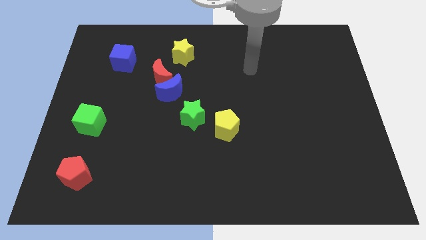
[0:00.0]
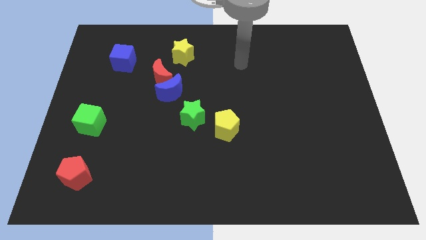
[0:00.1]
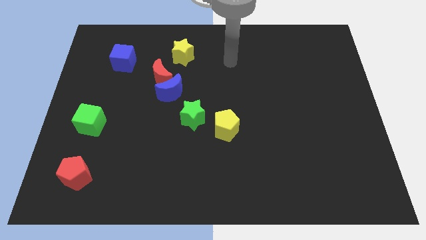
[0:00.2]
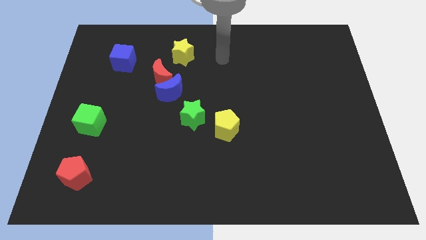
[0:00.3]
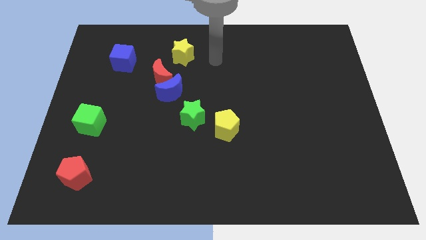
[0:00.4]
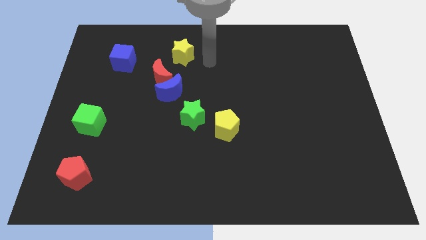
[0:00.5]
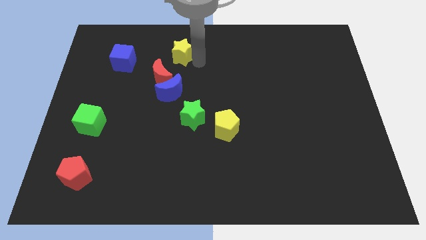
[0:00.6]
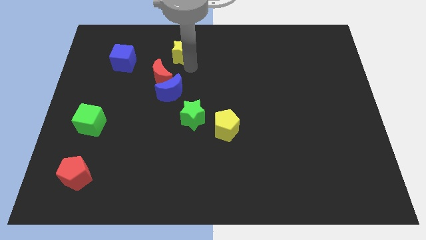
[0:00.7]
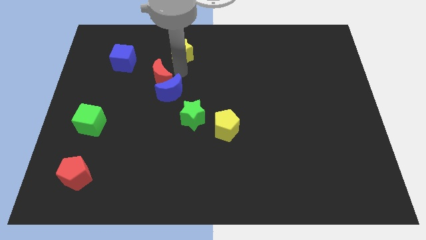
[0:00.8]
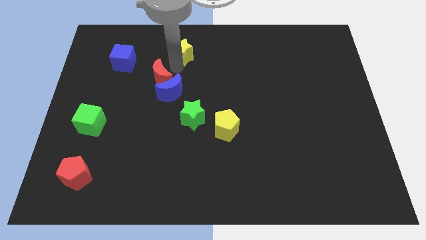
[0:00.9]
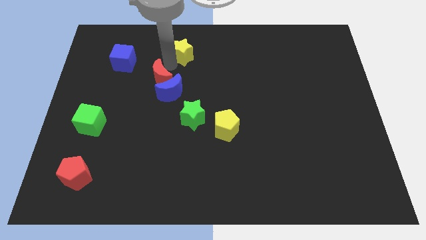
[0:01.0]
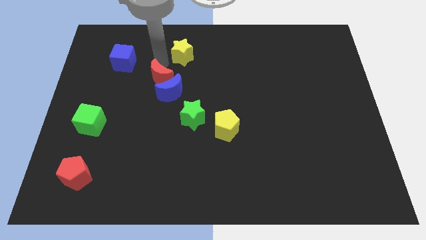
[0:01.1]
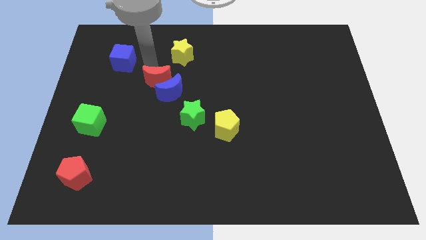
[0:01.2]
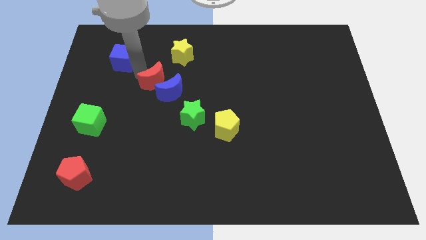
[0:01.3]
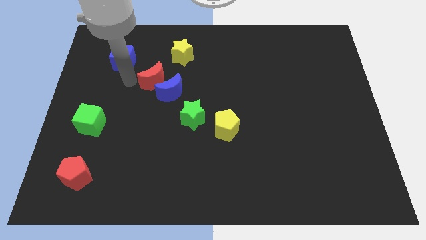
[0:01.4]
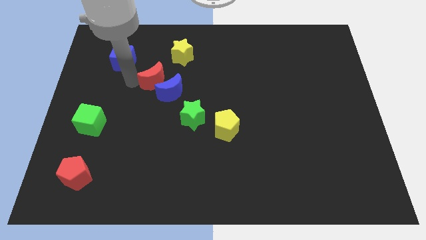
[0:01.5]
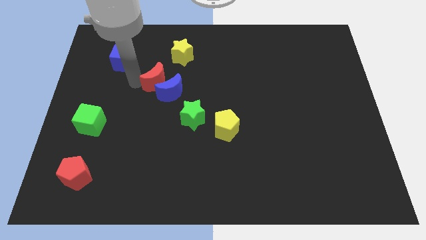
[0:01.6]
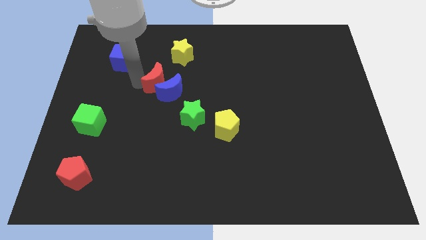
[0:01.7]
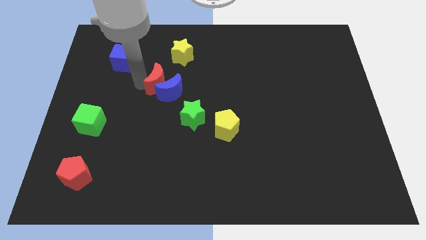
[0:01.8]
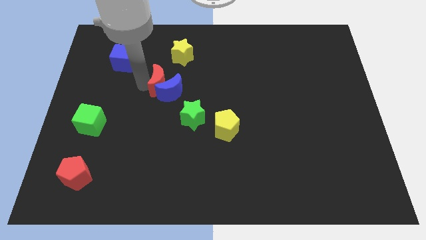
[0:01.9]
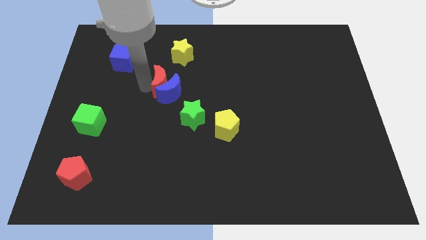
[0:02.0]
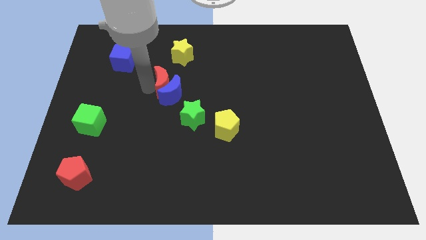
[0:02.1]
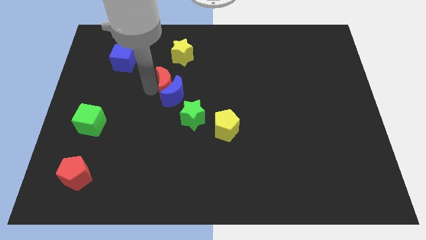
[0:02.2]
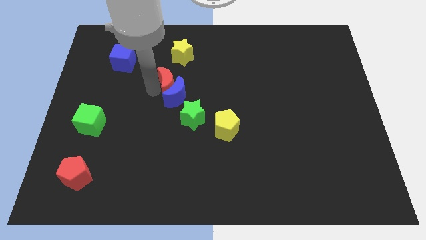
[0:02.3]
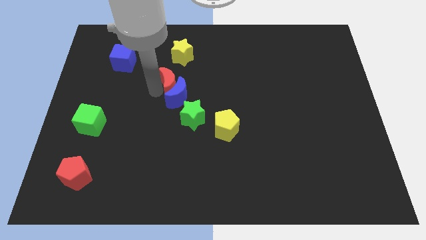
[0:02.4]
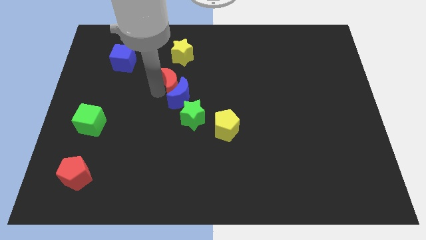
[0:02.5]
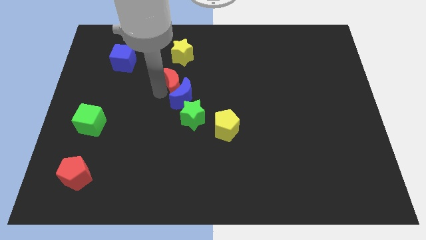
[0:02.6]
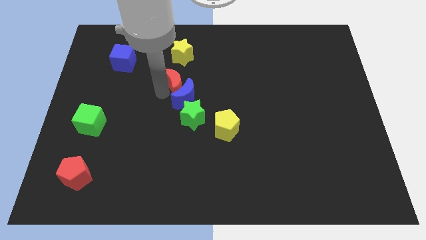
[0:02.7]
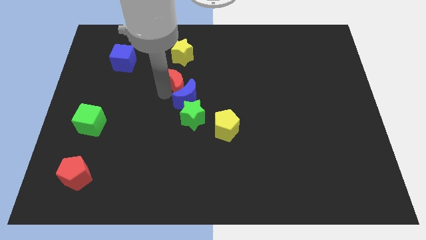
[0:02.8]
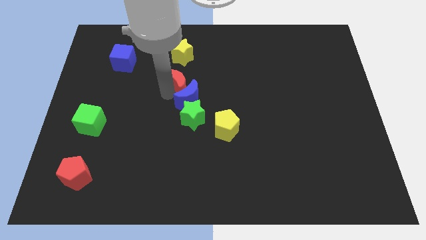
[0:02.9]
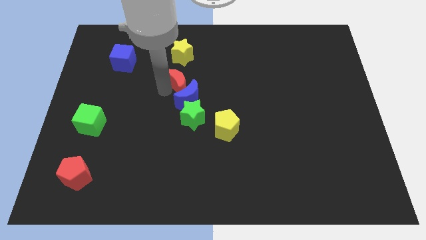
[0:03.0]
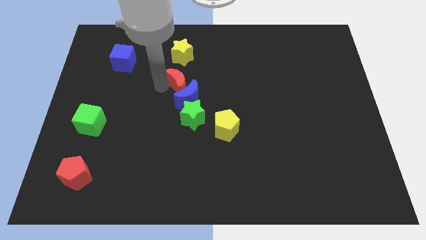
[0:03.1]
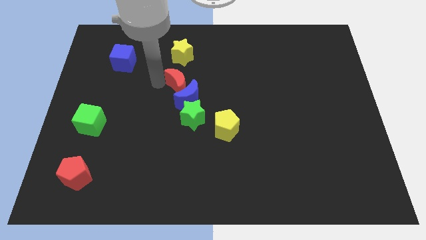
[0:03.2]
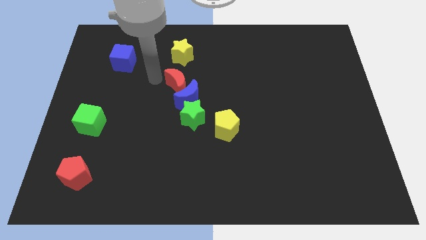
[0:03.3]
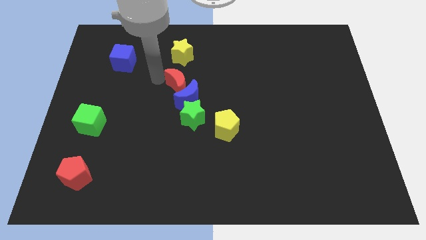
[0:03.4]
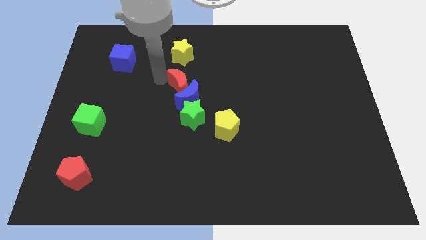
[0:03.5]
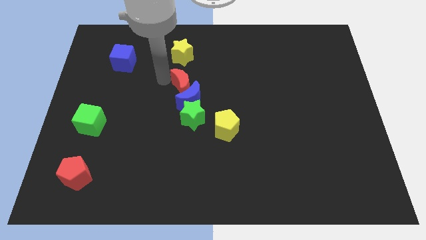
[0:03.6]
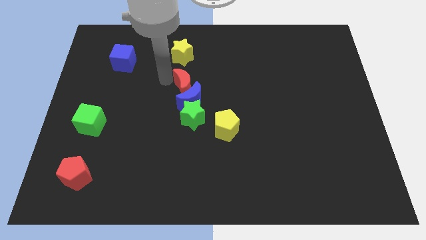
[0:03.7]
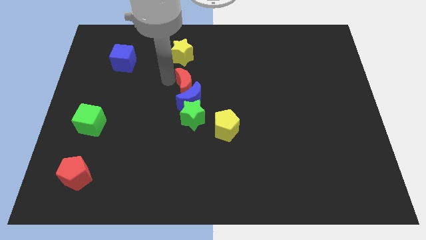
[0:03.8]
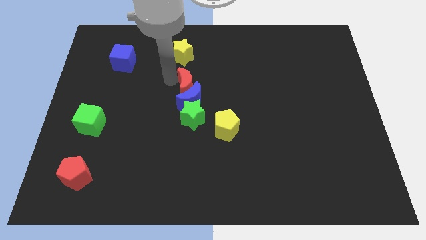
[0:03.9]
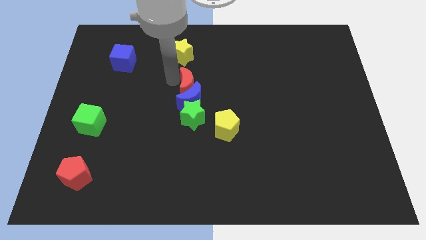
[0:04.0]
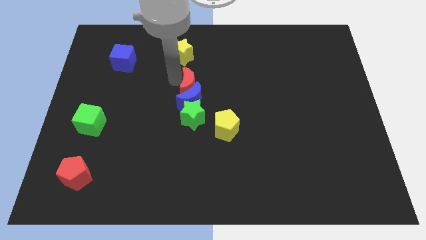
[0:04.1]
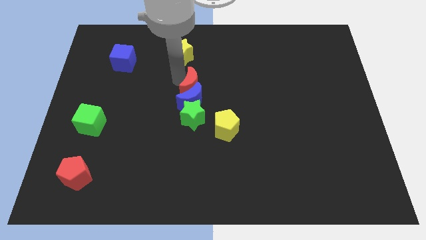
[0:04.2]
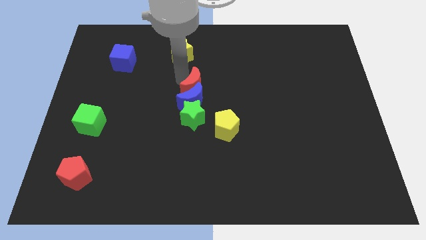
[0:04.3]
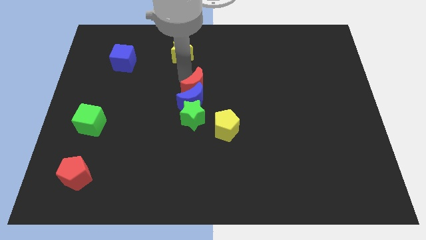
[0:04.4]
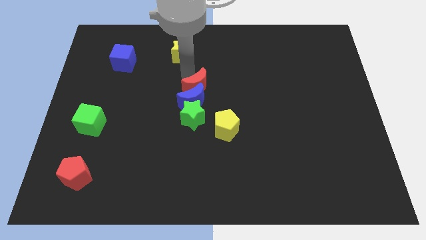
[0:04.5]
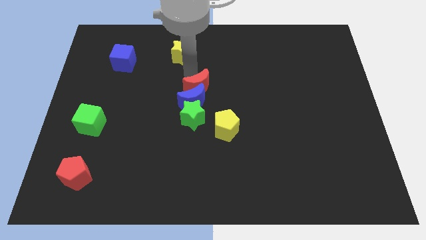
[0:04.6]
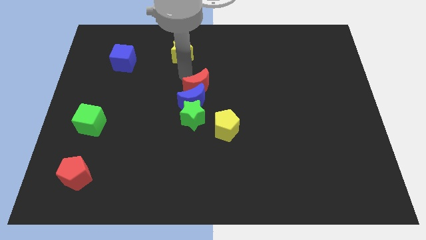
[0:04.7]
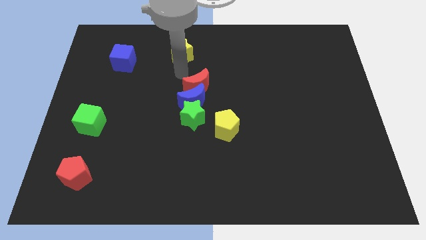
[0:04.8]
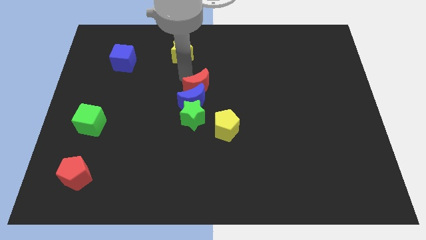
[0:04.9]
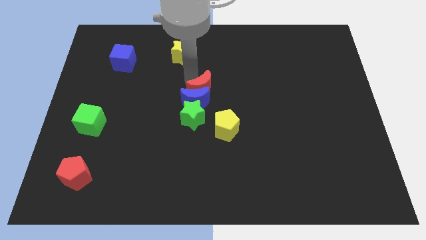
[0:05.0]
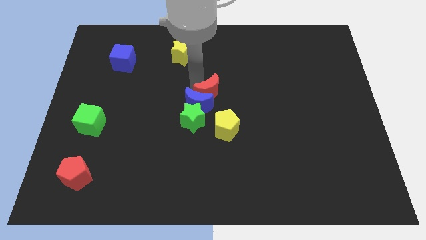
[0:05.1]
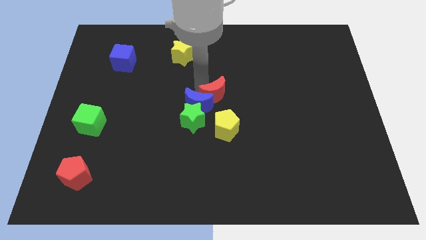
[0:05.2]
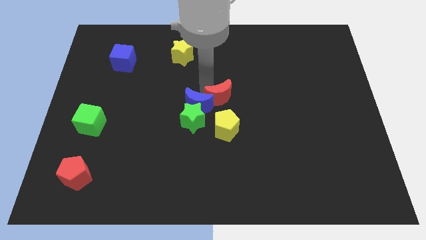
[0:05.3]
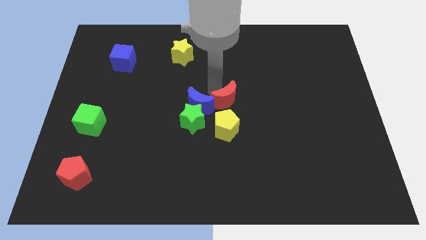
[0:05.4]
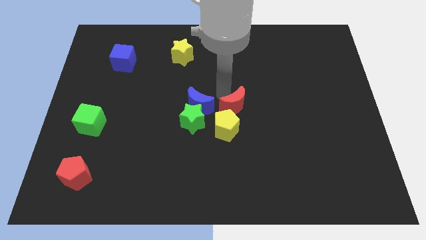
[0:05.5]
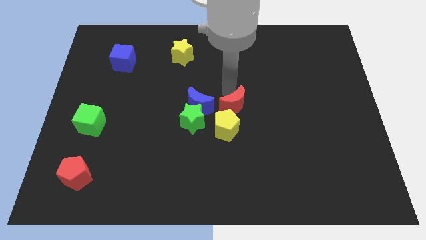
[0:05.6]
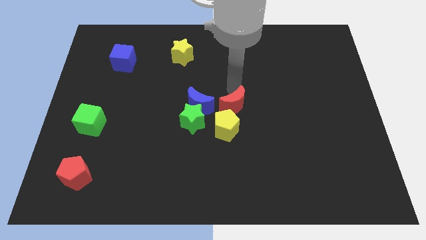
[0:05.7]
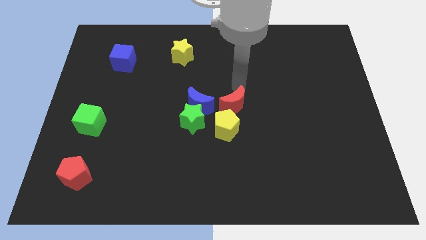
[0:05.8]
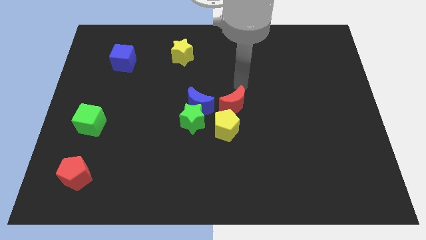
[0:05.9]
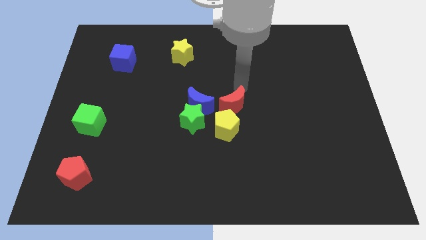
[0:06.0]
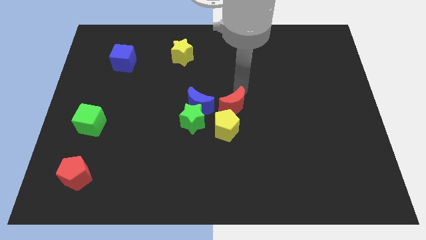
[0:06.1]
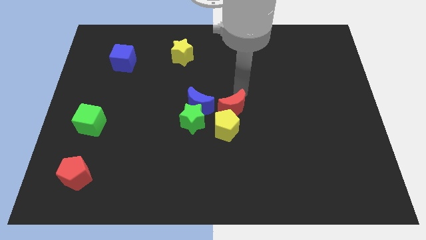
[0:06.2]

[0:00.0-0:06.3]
move the red moon close to the yellow pentagon

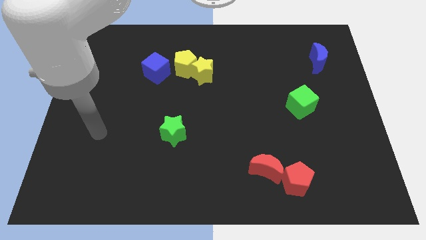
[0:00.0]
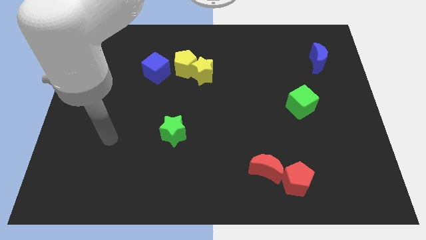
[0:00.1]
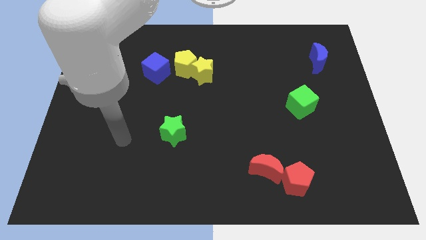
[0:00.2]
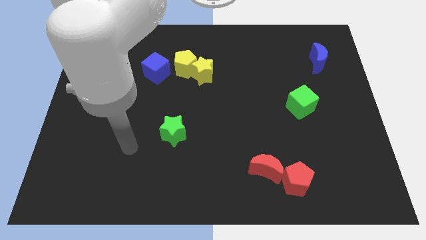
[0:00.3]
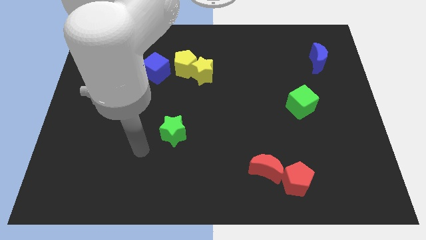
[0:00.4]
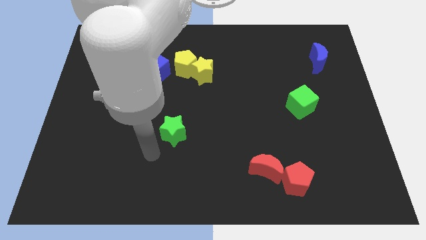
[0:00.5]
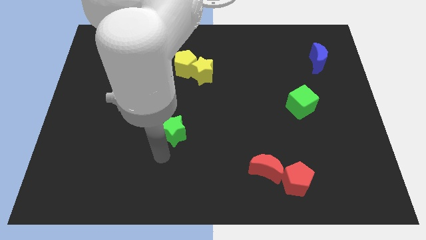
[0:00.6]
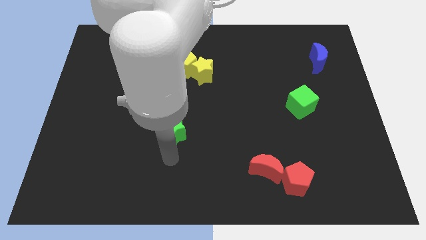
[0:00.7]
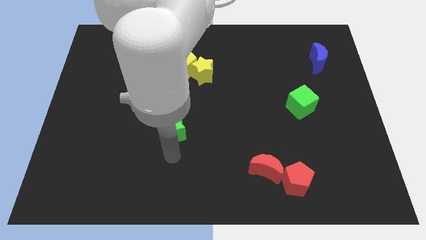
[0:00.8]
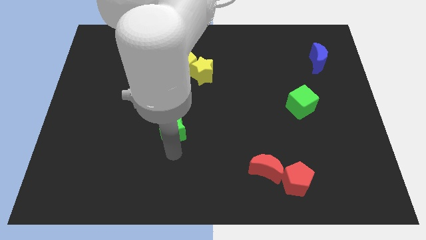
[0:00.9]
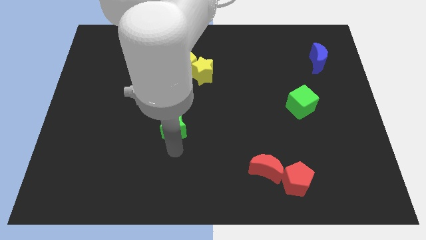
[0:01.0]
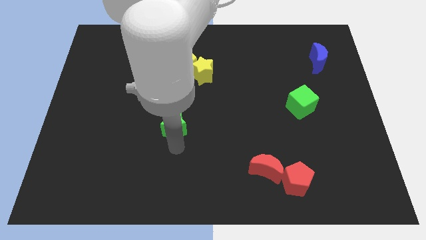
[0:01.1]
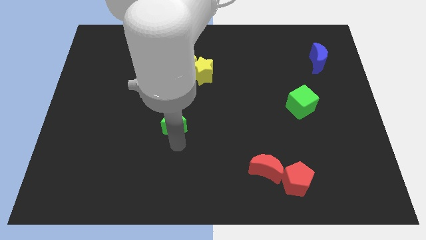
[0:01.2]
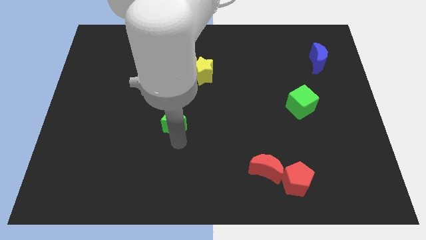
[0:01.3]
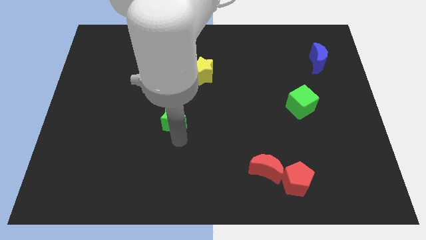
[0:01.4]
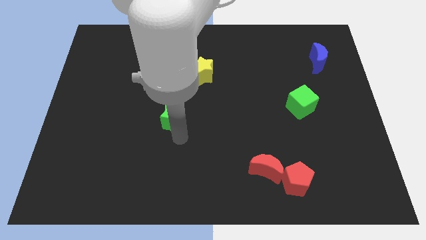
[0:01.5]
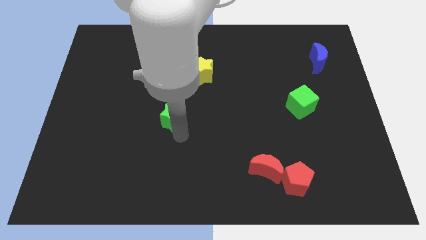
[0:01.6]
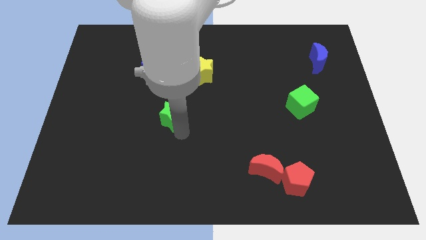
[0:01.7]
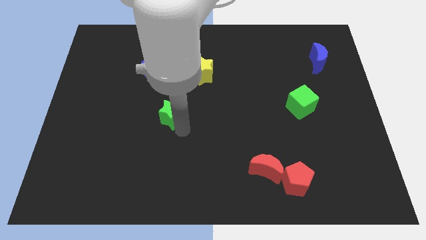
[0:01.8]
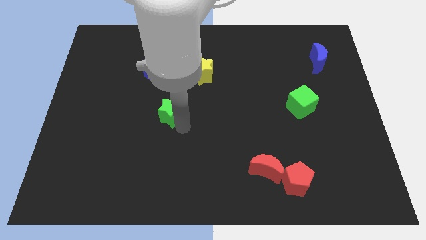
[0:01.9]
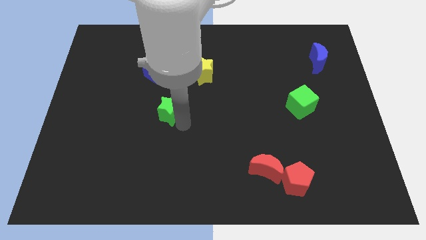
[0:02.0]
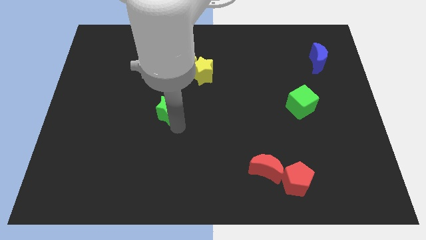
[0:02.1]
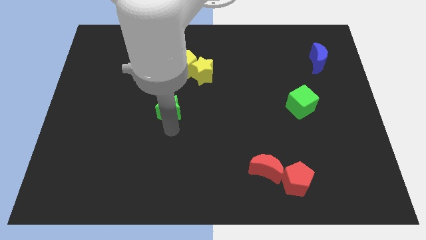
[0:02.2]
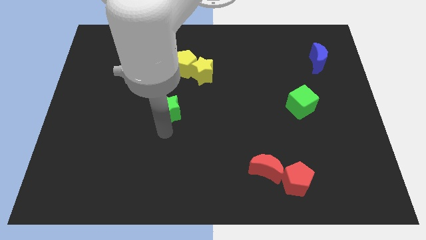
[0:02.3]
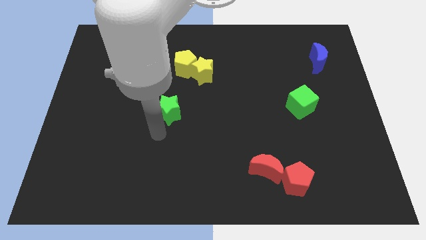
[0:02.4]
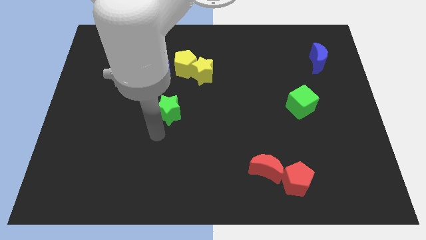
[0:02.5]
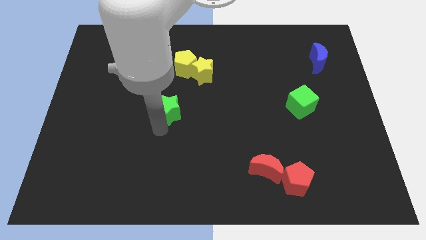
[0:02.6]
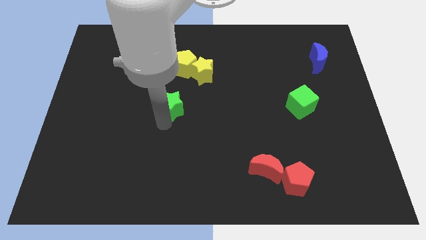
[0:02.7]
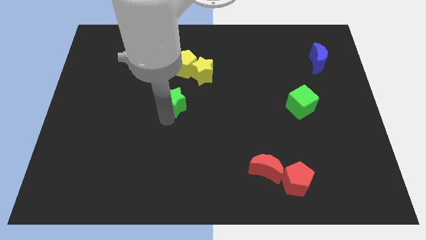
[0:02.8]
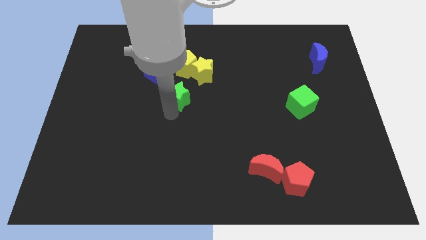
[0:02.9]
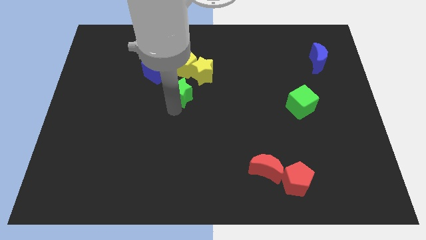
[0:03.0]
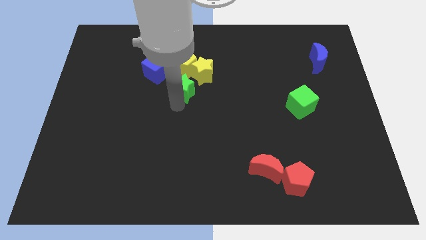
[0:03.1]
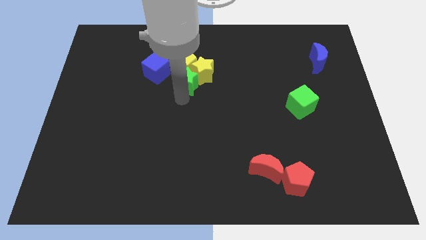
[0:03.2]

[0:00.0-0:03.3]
put the green star to the yellow pentagon
